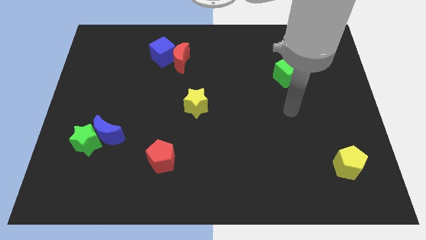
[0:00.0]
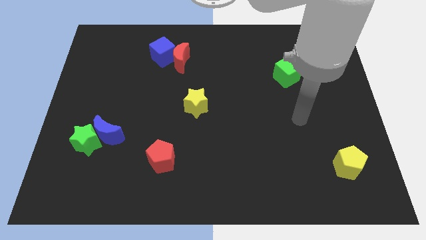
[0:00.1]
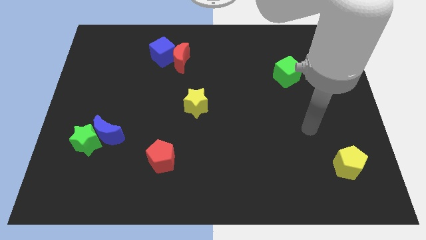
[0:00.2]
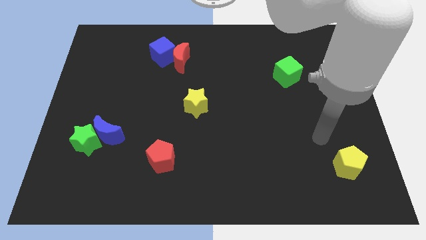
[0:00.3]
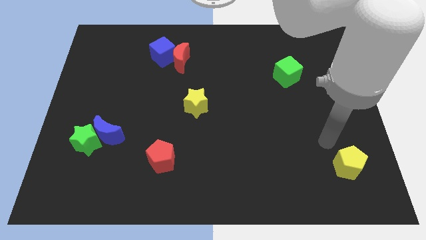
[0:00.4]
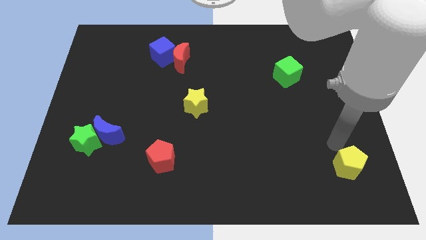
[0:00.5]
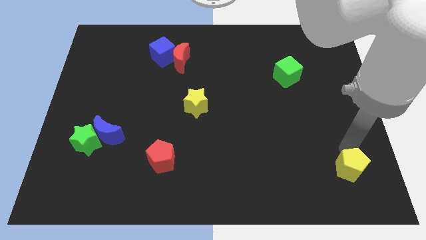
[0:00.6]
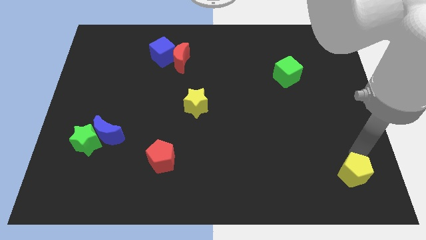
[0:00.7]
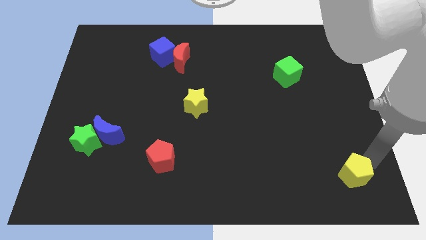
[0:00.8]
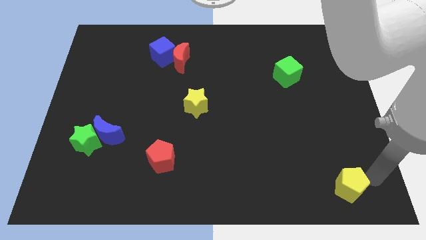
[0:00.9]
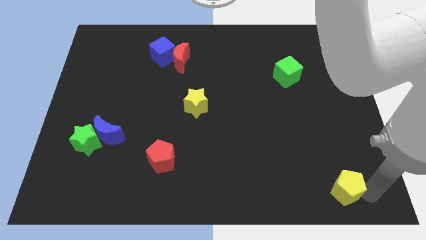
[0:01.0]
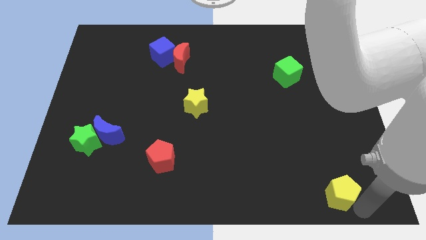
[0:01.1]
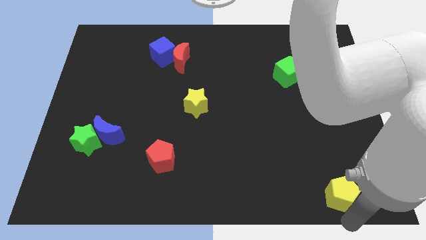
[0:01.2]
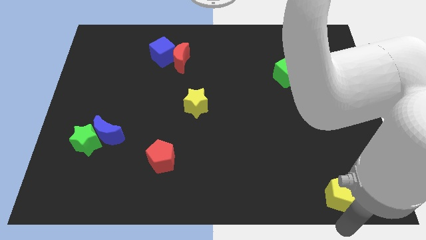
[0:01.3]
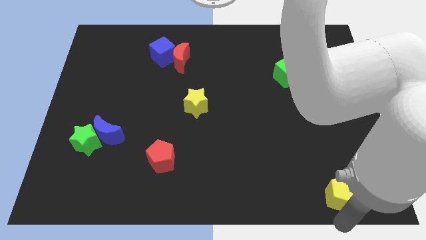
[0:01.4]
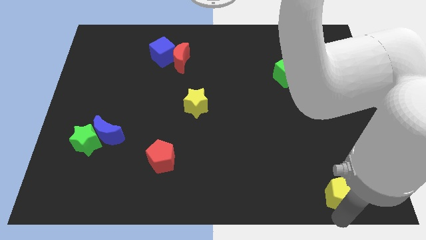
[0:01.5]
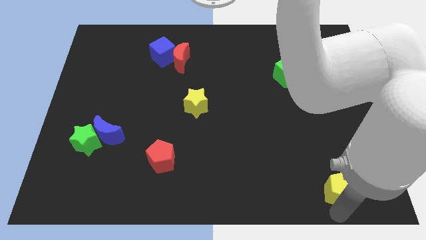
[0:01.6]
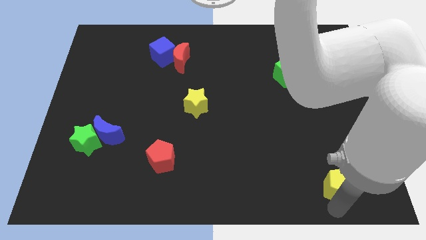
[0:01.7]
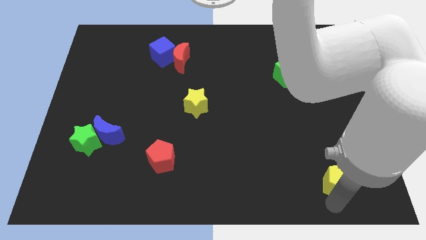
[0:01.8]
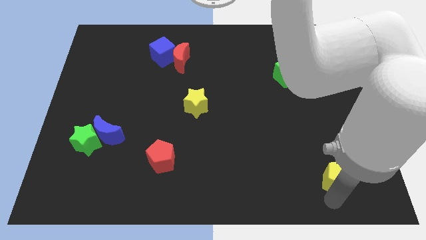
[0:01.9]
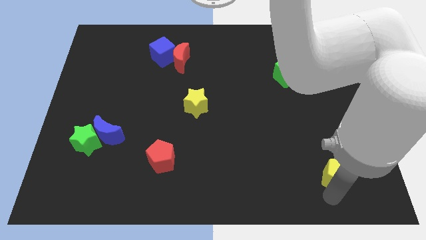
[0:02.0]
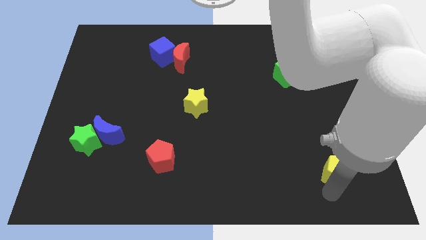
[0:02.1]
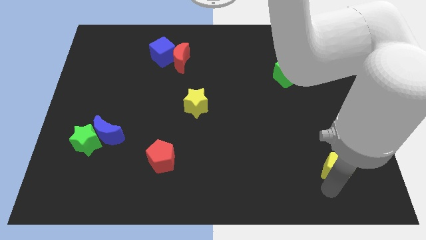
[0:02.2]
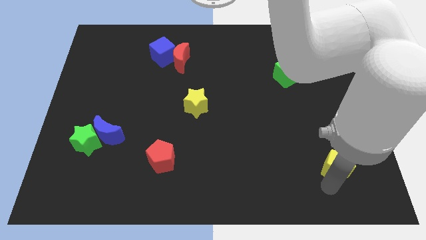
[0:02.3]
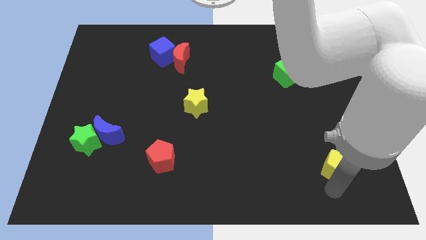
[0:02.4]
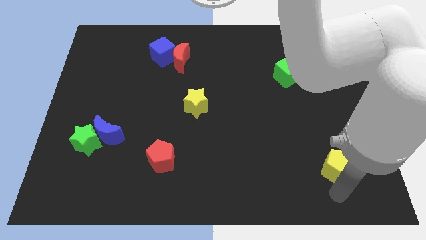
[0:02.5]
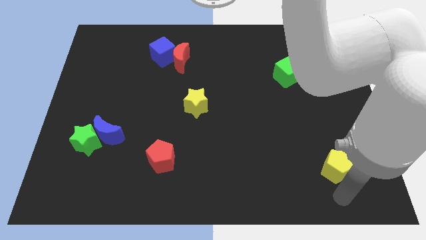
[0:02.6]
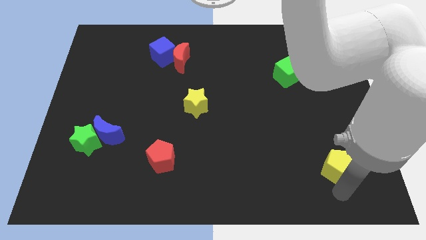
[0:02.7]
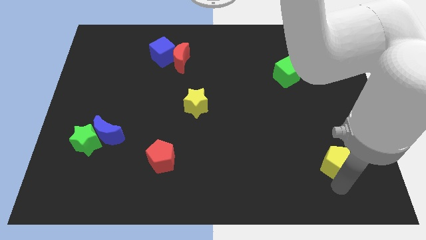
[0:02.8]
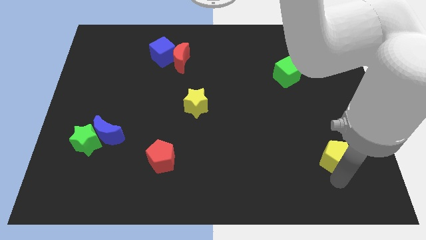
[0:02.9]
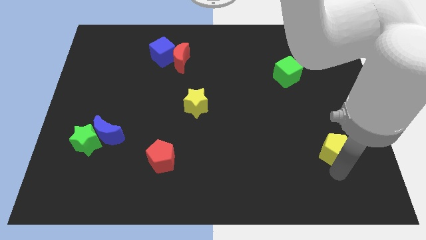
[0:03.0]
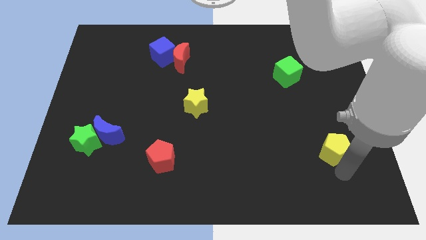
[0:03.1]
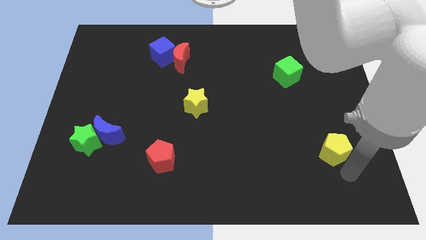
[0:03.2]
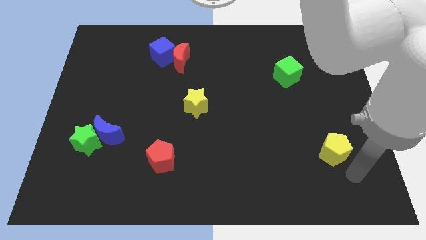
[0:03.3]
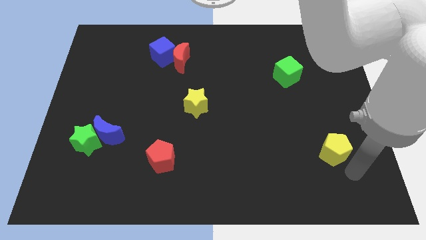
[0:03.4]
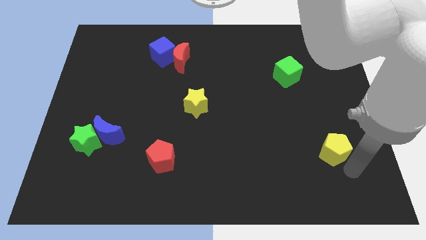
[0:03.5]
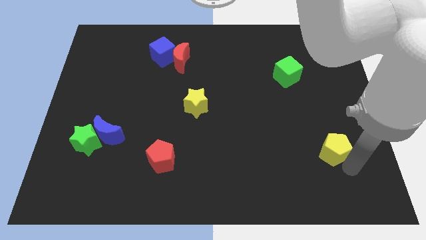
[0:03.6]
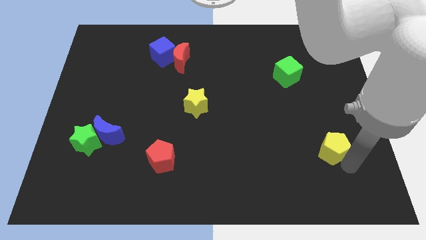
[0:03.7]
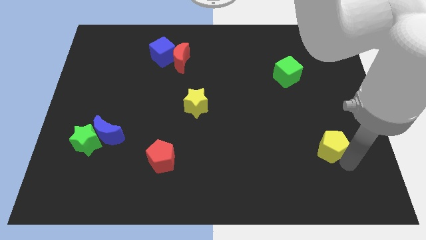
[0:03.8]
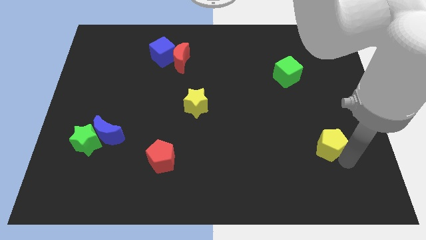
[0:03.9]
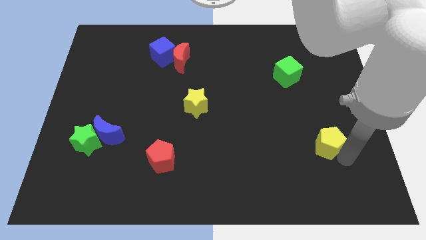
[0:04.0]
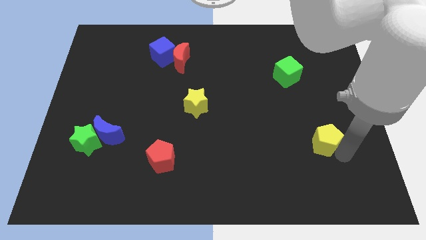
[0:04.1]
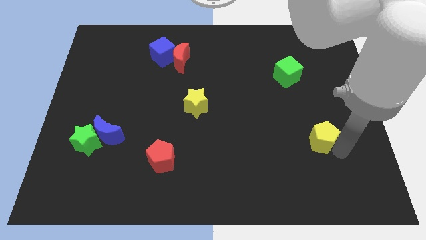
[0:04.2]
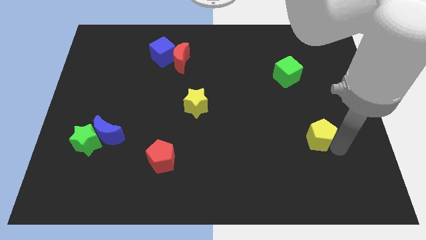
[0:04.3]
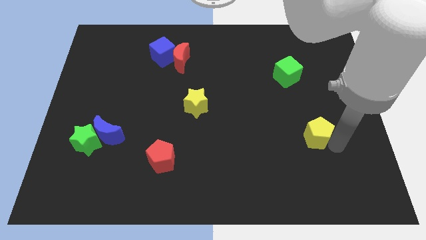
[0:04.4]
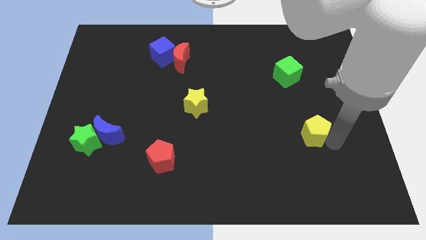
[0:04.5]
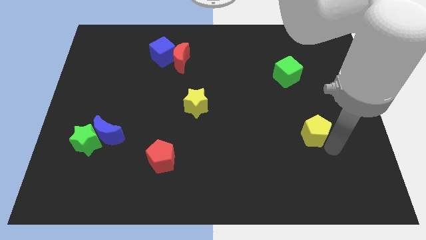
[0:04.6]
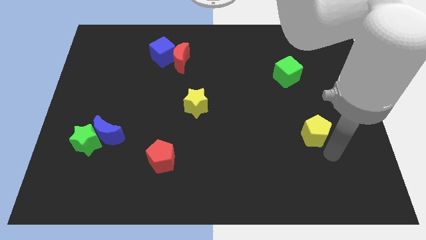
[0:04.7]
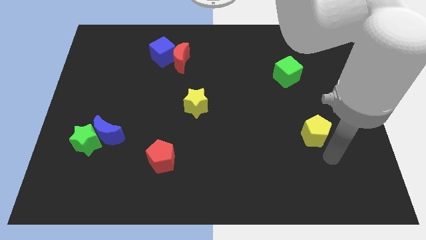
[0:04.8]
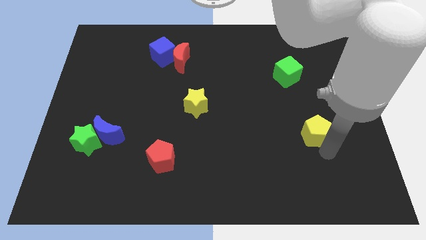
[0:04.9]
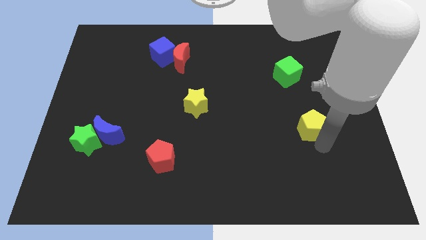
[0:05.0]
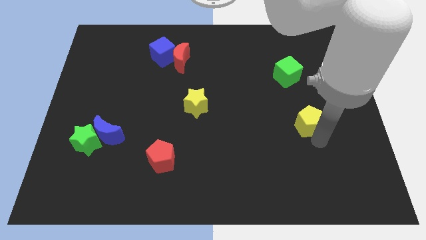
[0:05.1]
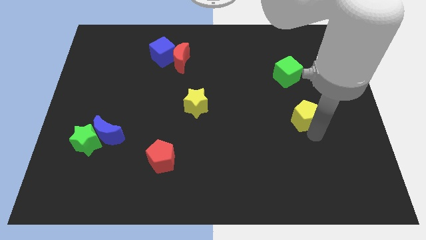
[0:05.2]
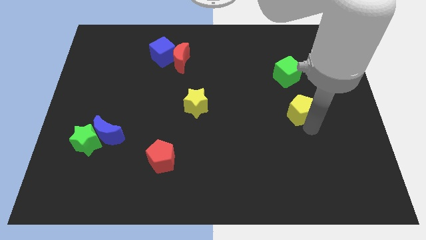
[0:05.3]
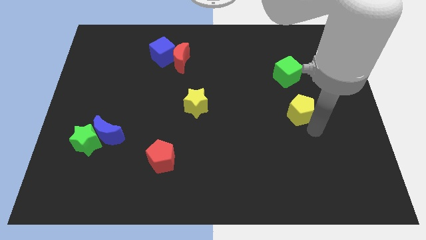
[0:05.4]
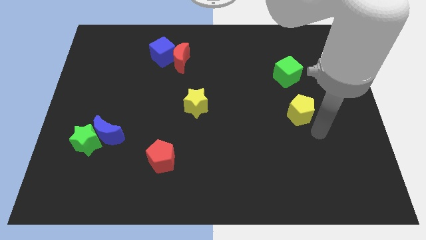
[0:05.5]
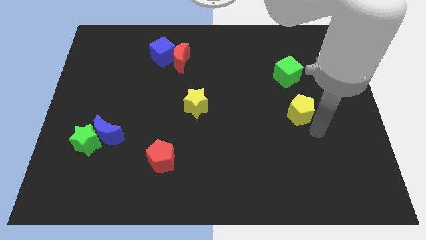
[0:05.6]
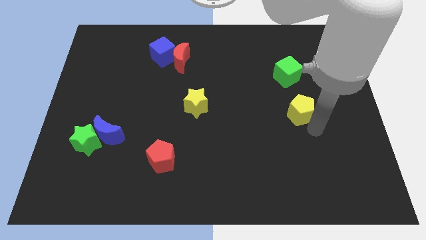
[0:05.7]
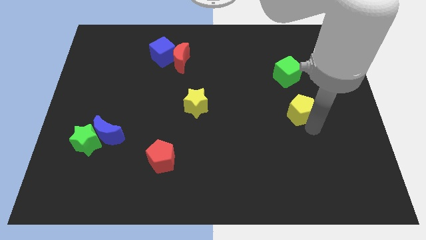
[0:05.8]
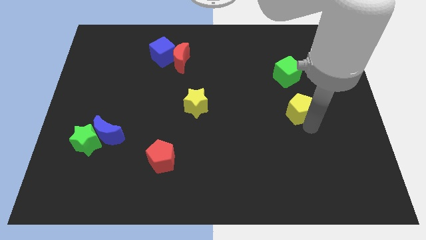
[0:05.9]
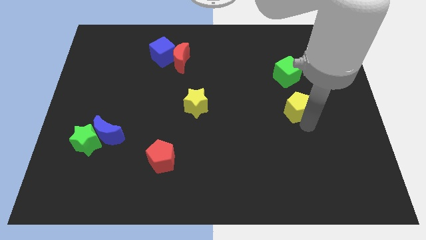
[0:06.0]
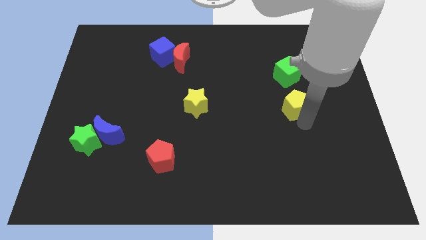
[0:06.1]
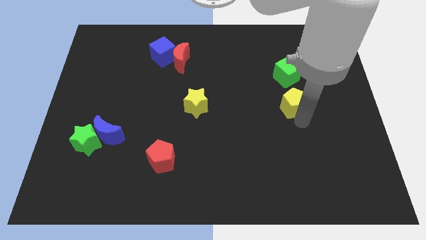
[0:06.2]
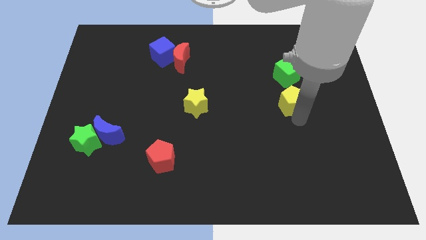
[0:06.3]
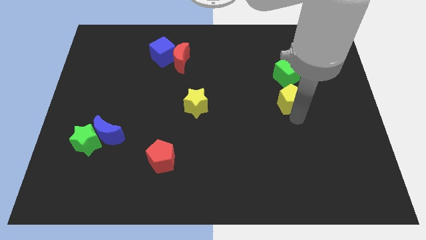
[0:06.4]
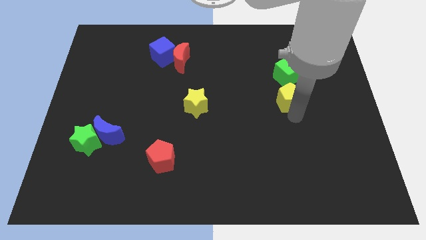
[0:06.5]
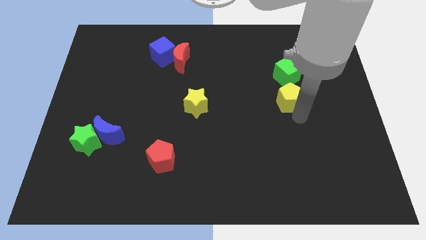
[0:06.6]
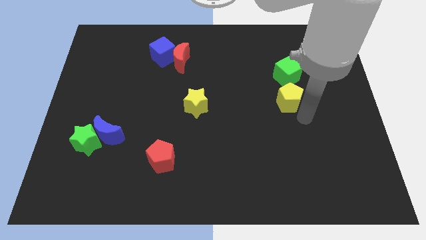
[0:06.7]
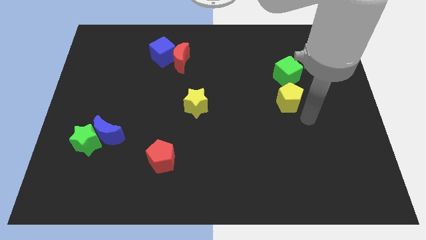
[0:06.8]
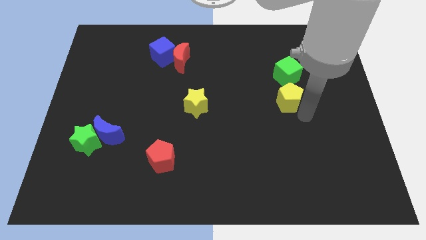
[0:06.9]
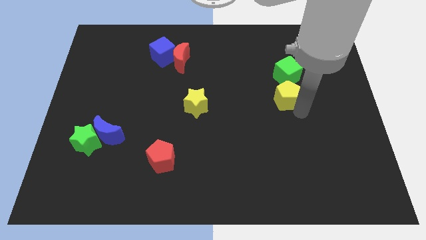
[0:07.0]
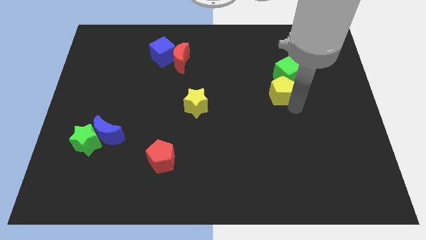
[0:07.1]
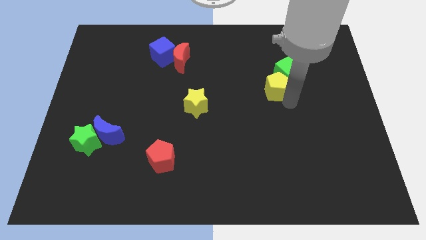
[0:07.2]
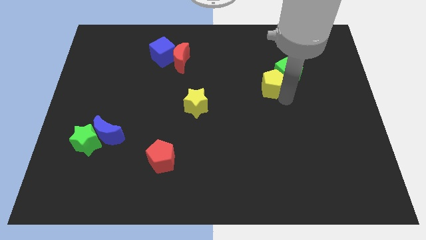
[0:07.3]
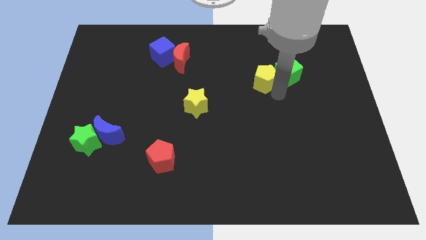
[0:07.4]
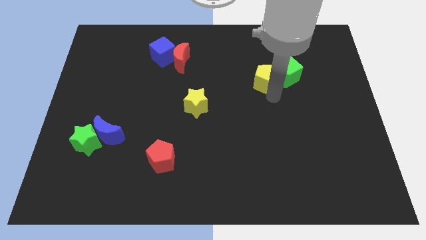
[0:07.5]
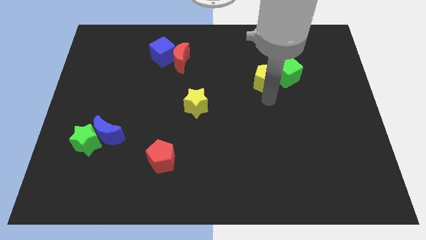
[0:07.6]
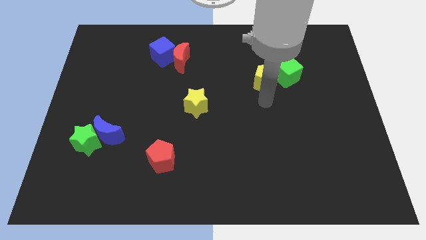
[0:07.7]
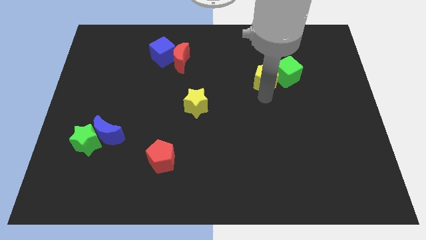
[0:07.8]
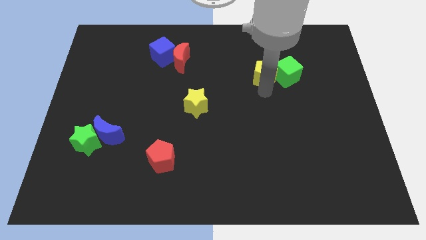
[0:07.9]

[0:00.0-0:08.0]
put the yellow pentagon to the top left side of the green cube
